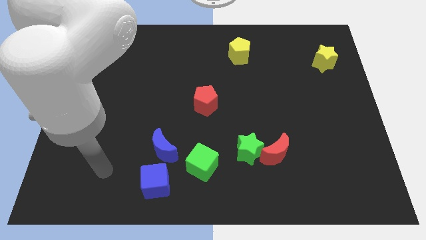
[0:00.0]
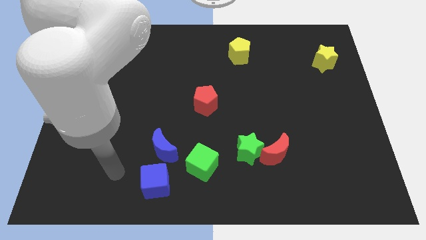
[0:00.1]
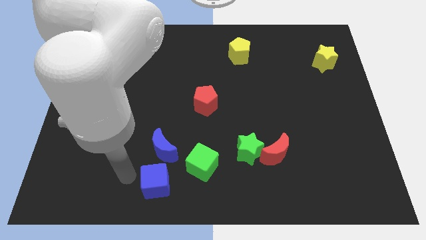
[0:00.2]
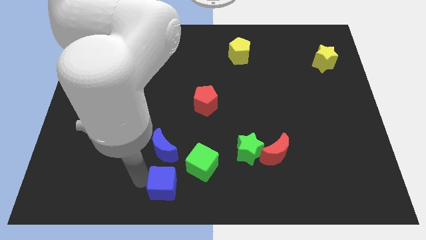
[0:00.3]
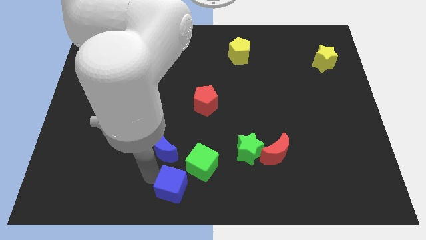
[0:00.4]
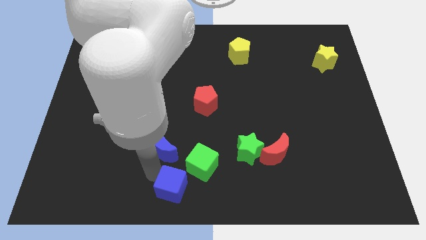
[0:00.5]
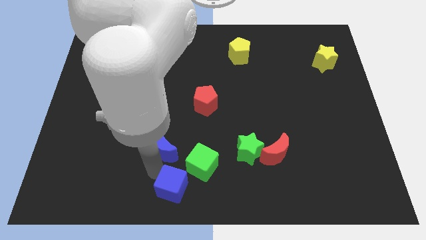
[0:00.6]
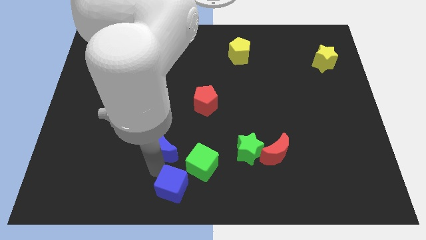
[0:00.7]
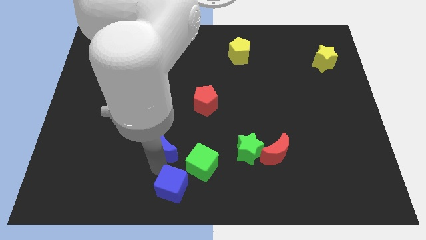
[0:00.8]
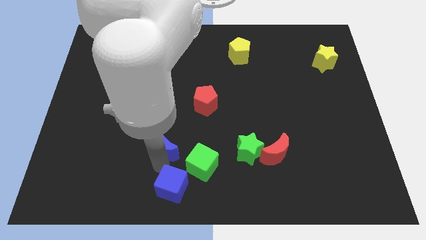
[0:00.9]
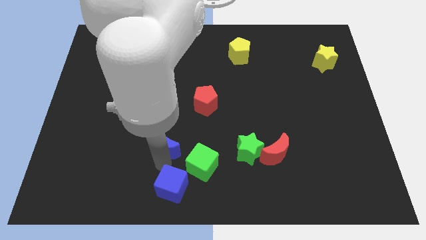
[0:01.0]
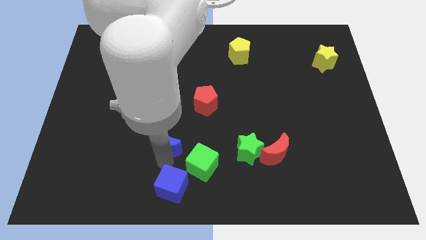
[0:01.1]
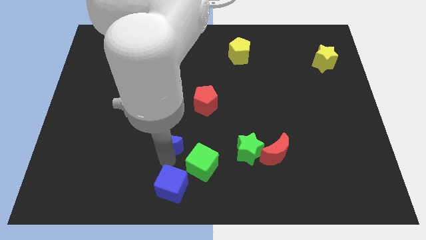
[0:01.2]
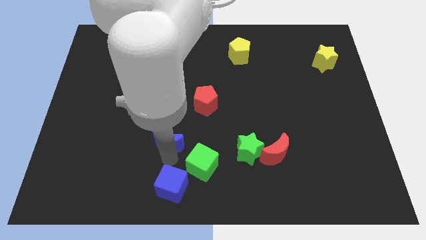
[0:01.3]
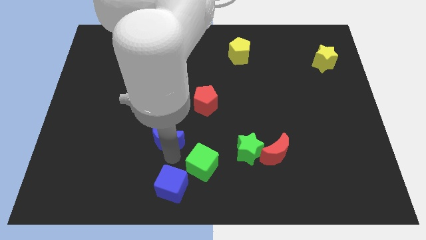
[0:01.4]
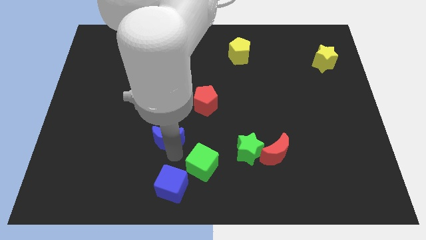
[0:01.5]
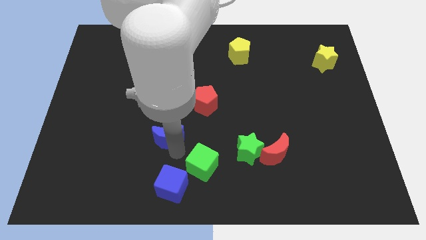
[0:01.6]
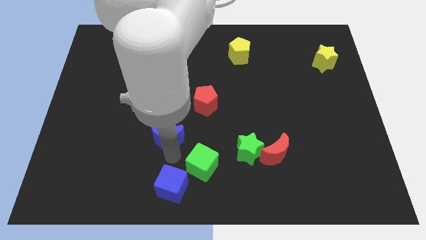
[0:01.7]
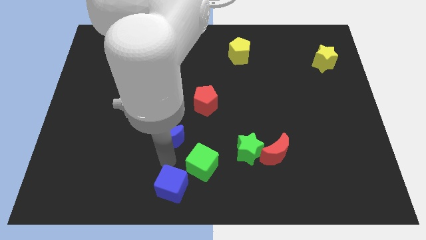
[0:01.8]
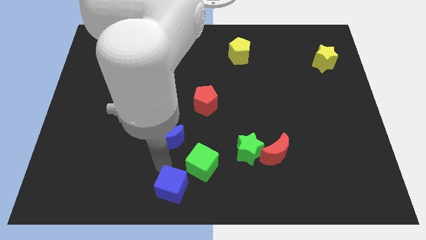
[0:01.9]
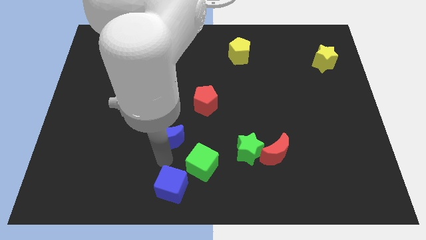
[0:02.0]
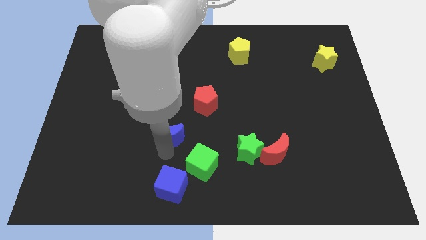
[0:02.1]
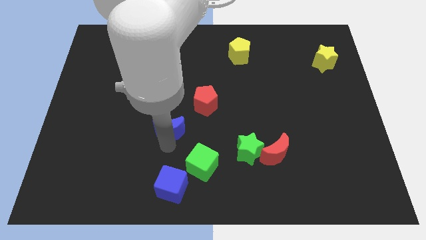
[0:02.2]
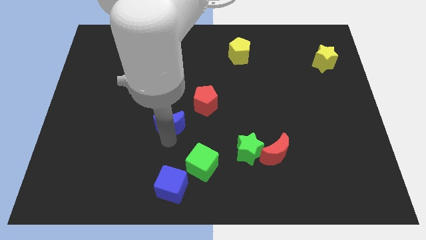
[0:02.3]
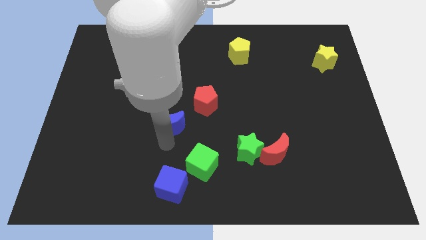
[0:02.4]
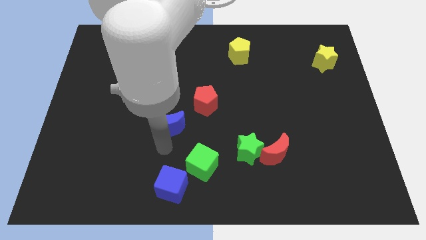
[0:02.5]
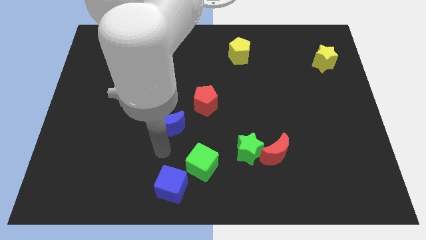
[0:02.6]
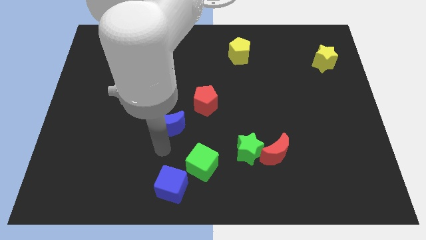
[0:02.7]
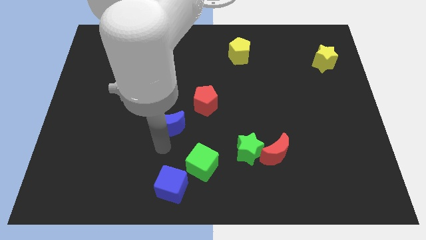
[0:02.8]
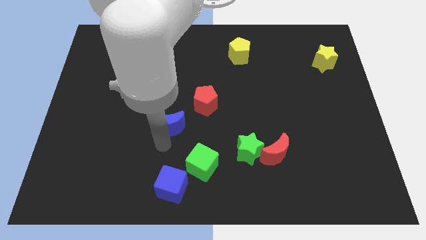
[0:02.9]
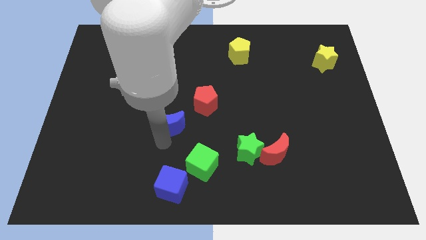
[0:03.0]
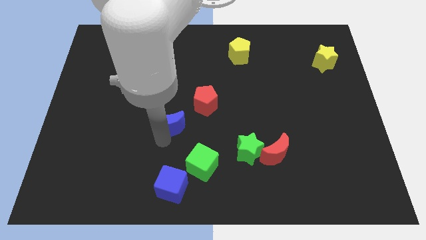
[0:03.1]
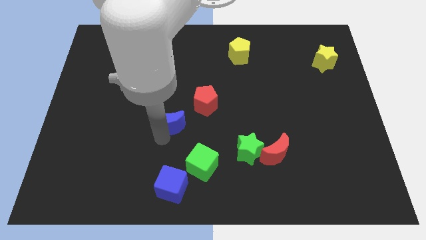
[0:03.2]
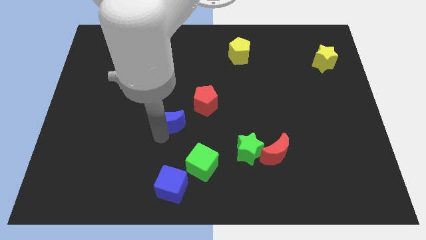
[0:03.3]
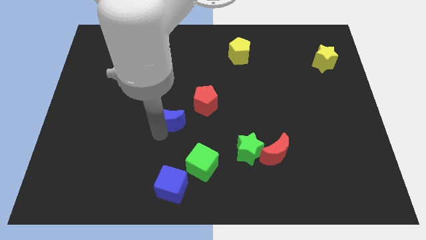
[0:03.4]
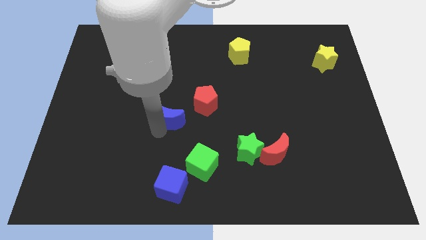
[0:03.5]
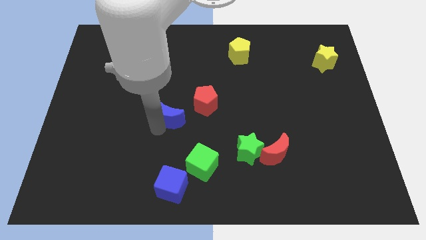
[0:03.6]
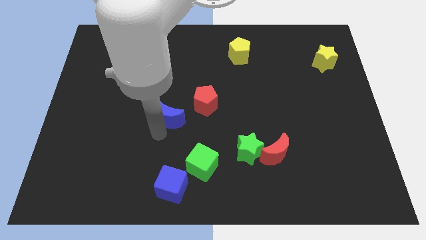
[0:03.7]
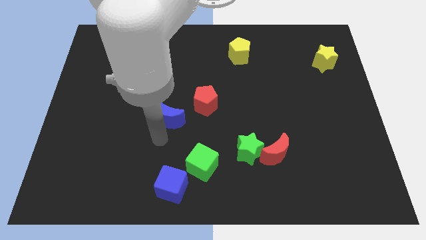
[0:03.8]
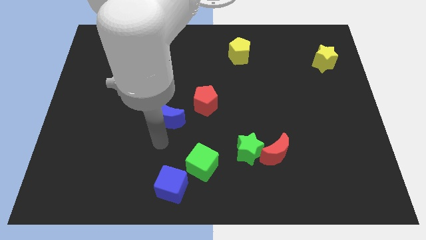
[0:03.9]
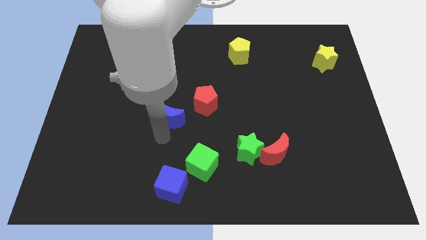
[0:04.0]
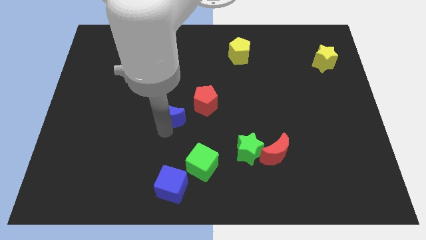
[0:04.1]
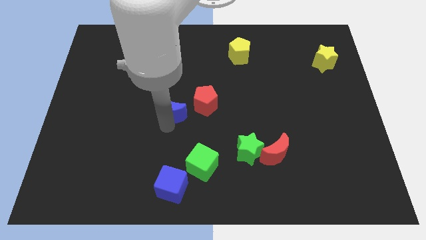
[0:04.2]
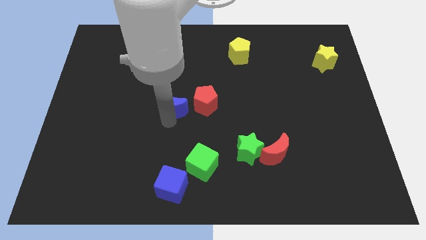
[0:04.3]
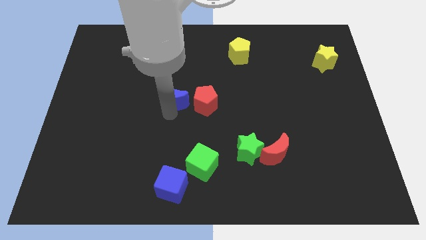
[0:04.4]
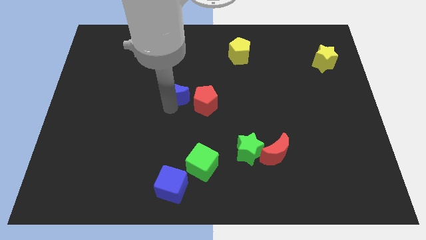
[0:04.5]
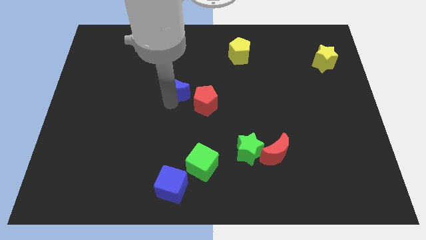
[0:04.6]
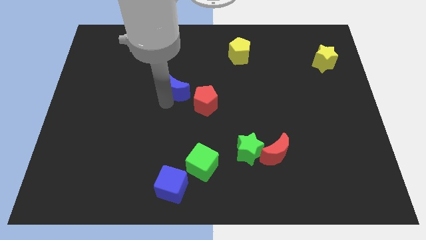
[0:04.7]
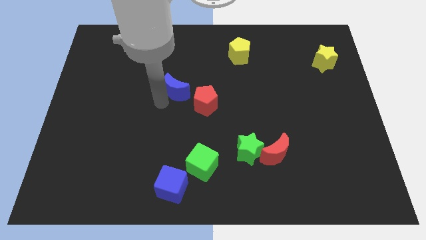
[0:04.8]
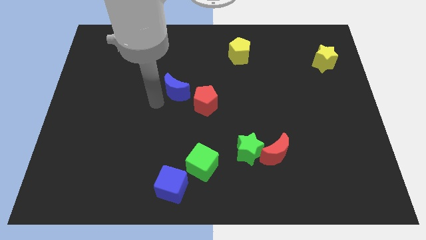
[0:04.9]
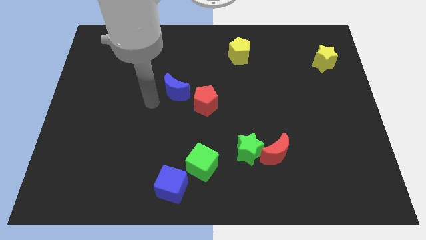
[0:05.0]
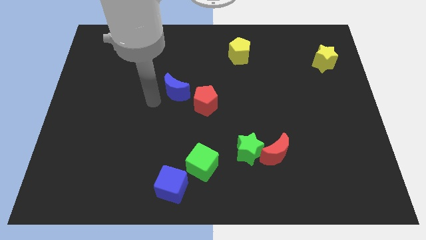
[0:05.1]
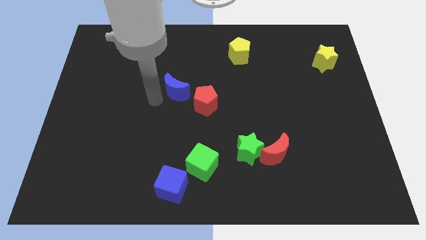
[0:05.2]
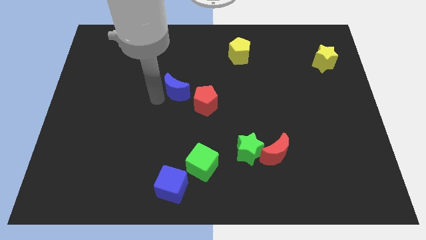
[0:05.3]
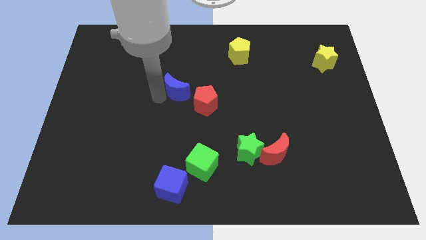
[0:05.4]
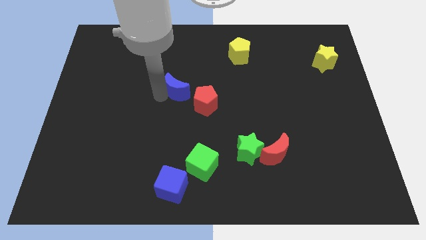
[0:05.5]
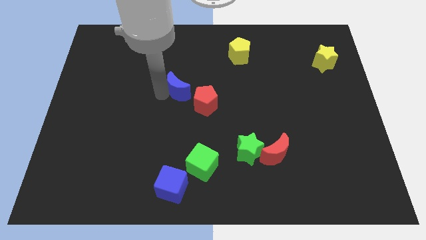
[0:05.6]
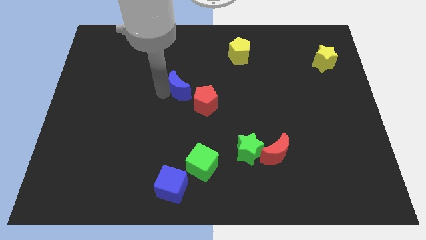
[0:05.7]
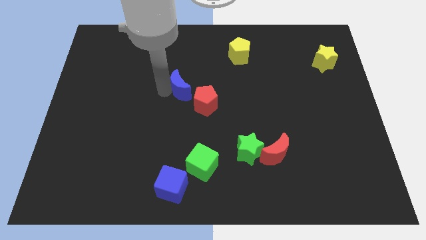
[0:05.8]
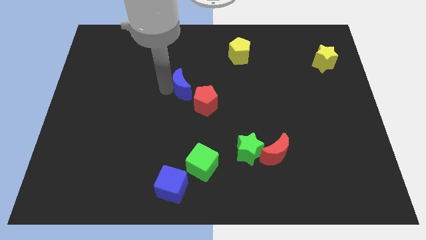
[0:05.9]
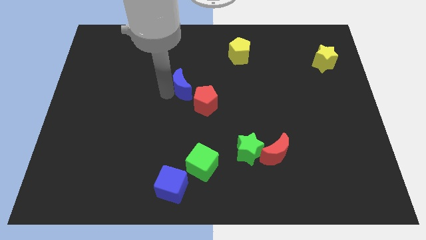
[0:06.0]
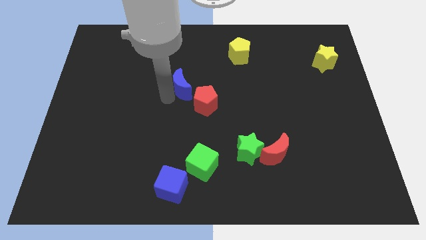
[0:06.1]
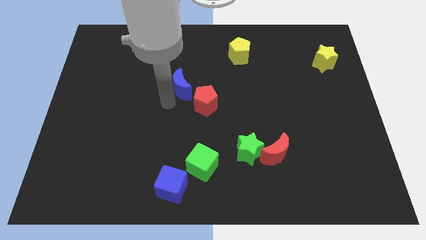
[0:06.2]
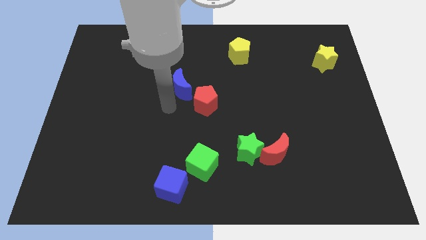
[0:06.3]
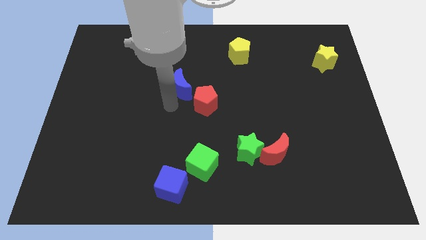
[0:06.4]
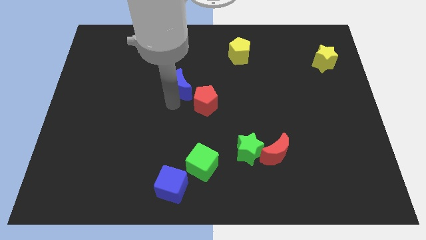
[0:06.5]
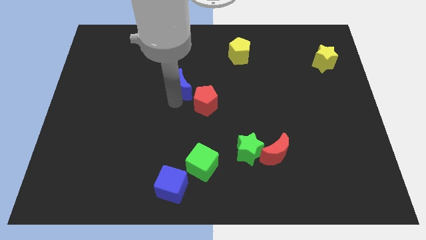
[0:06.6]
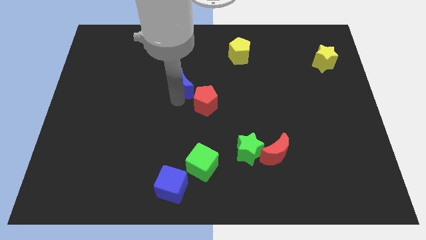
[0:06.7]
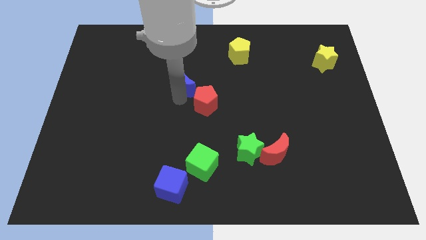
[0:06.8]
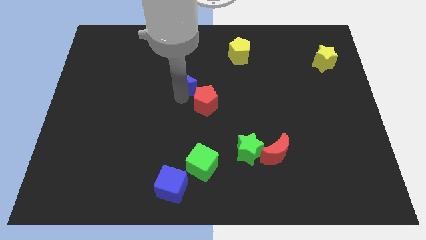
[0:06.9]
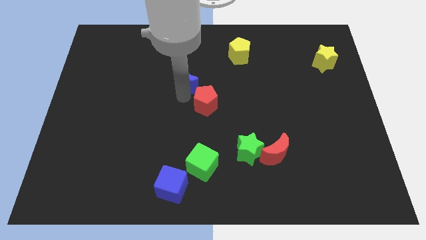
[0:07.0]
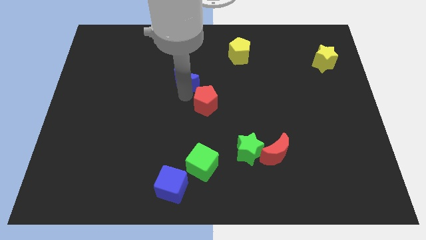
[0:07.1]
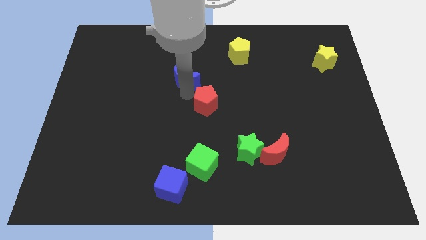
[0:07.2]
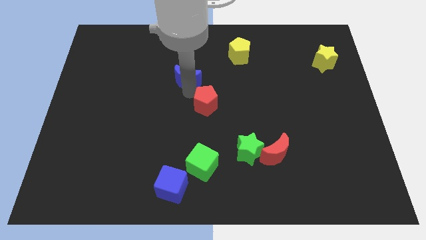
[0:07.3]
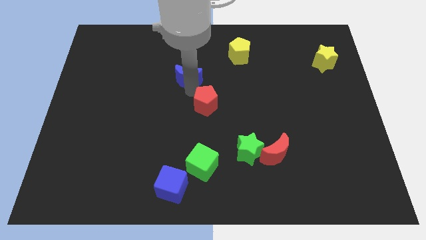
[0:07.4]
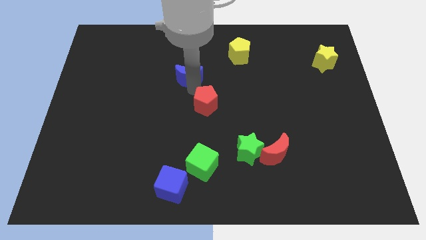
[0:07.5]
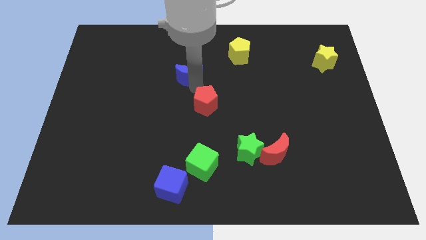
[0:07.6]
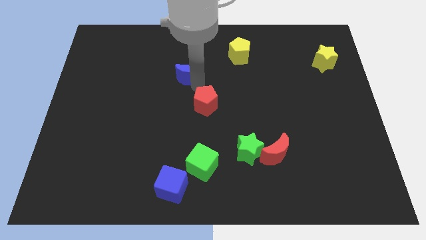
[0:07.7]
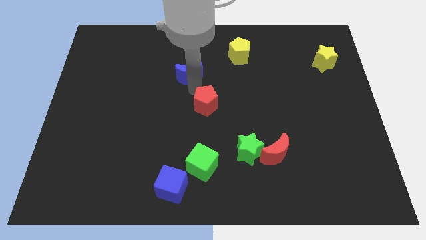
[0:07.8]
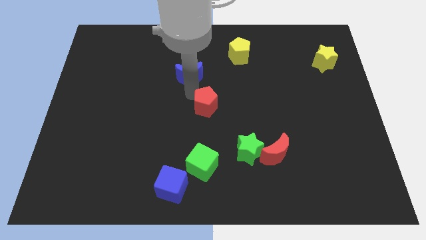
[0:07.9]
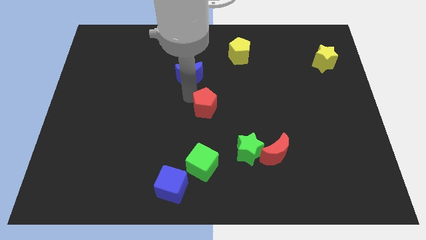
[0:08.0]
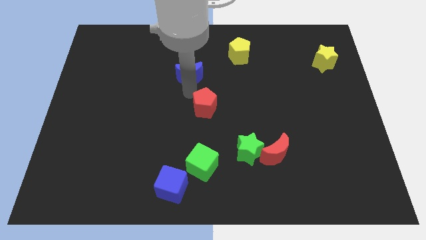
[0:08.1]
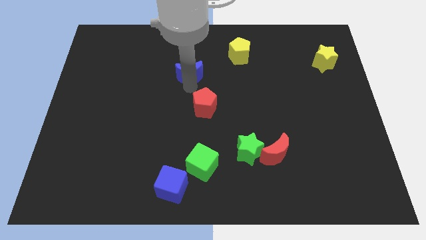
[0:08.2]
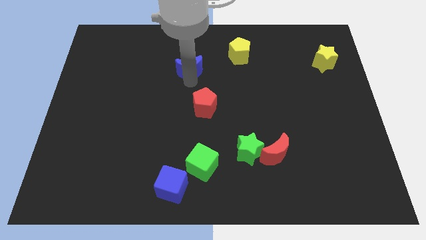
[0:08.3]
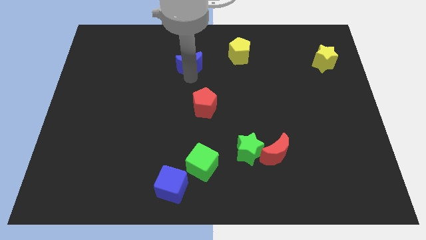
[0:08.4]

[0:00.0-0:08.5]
slide the blue moon to the left side of the yellow pentagon
